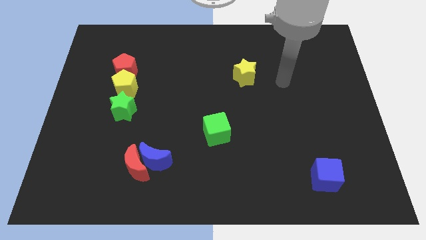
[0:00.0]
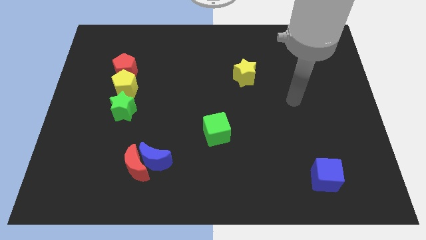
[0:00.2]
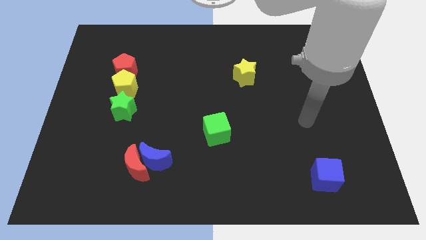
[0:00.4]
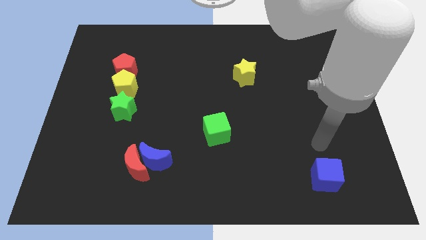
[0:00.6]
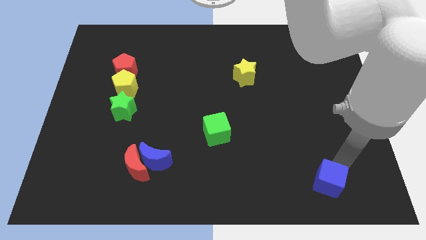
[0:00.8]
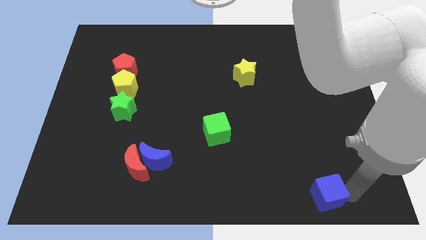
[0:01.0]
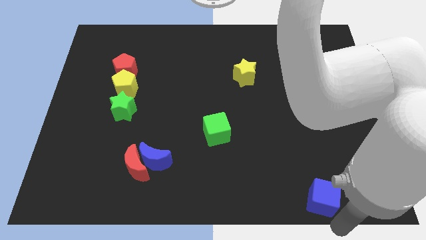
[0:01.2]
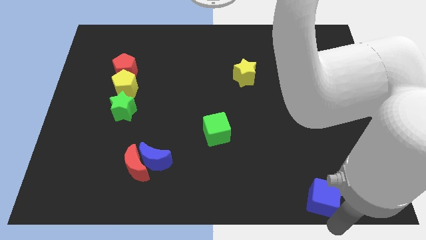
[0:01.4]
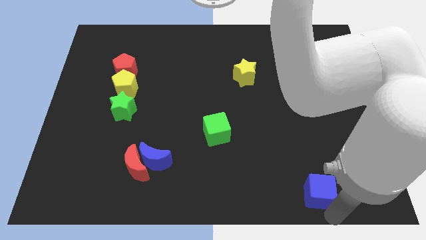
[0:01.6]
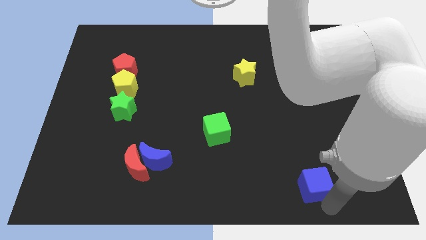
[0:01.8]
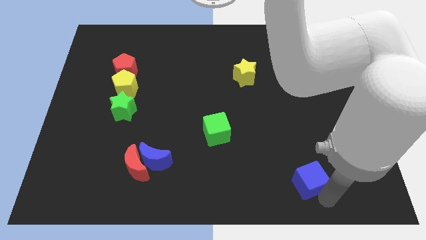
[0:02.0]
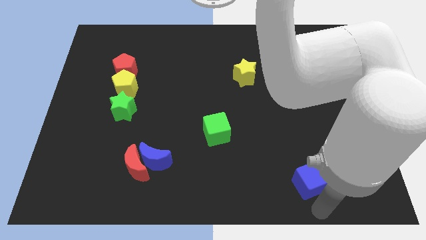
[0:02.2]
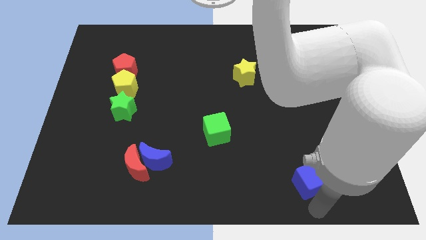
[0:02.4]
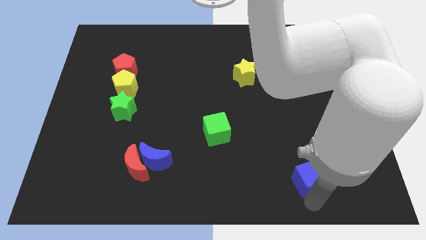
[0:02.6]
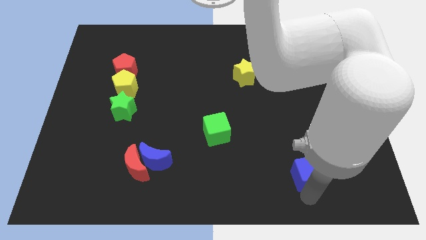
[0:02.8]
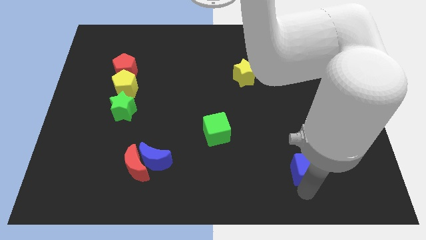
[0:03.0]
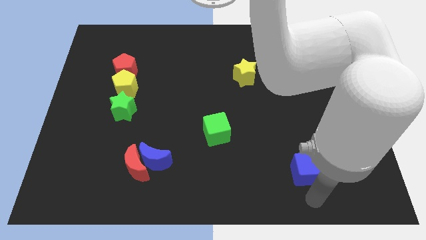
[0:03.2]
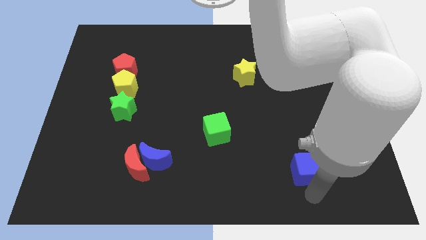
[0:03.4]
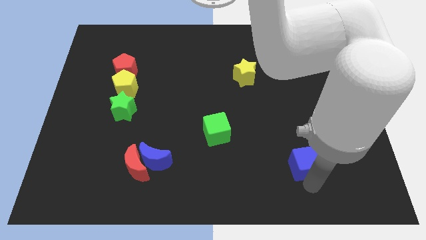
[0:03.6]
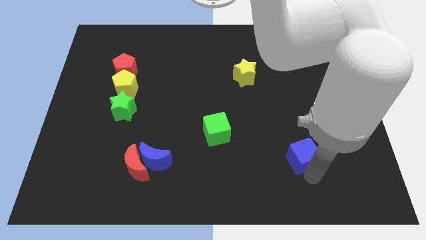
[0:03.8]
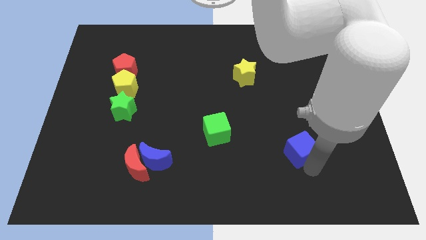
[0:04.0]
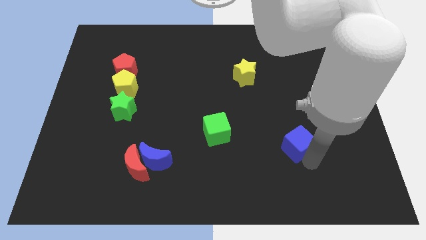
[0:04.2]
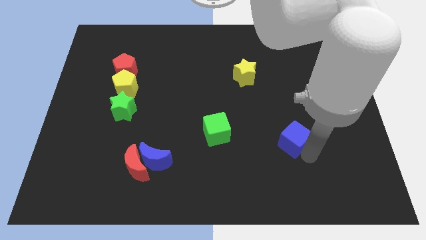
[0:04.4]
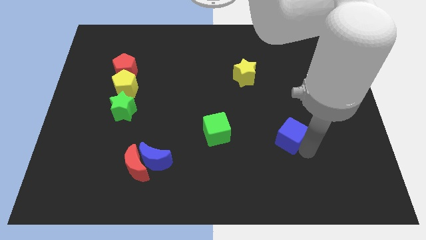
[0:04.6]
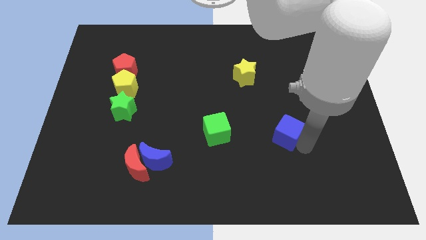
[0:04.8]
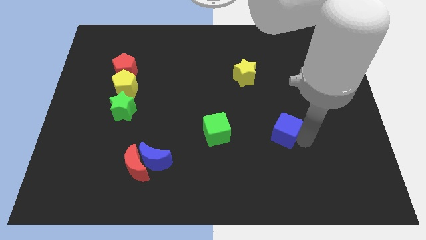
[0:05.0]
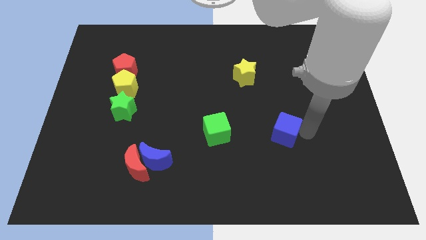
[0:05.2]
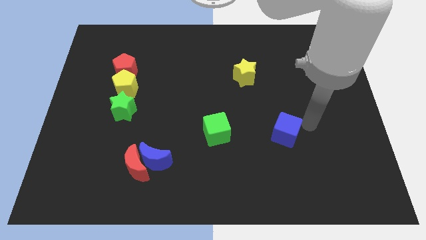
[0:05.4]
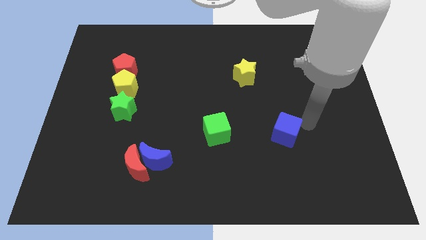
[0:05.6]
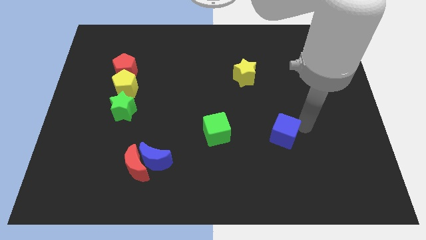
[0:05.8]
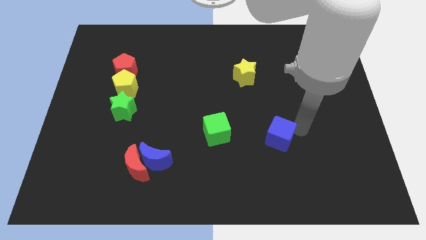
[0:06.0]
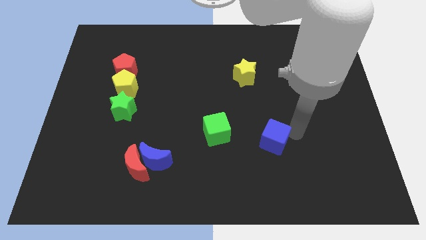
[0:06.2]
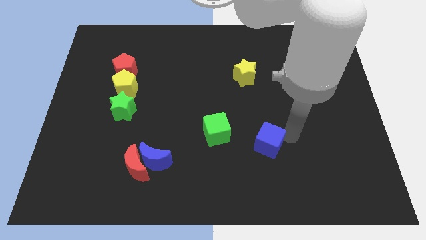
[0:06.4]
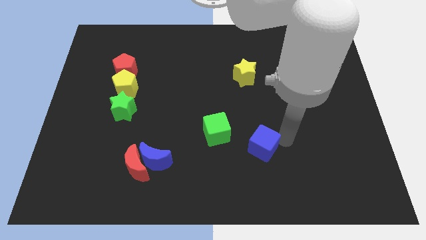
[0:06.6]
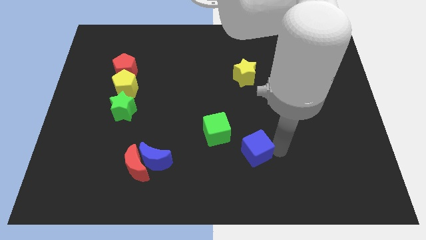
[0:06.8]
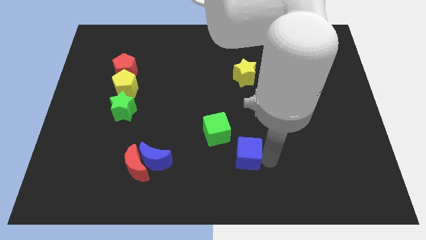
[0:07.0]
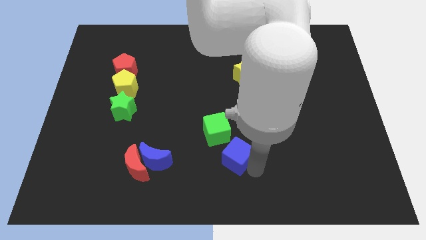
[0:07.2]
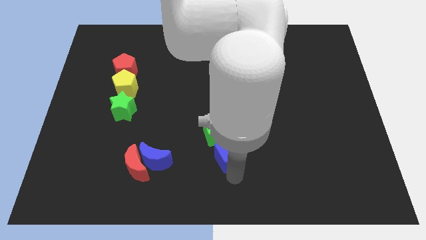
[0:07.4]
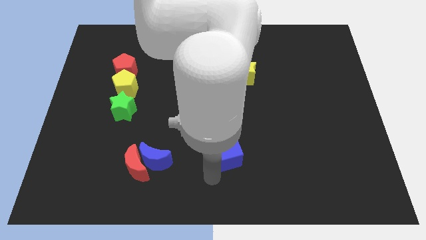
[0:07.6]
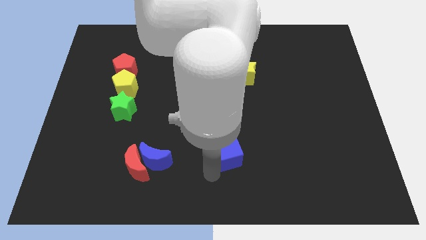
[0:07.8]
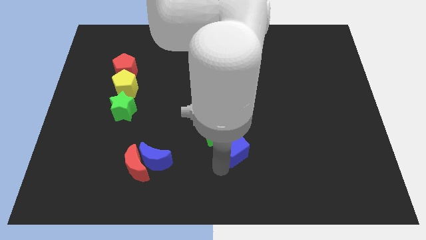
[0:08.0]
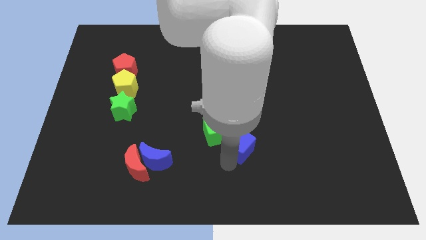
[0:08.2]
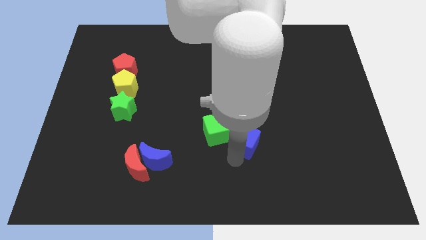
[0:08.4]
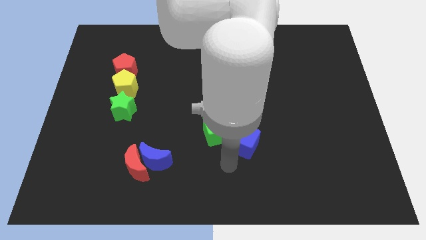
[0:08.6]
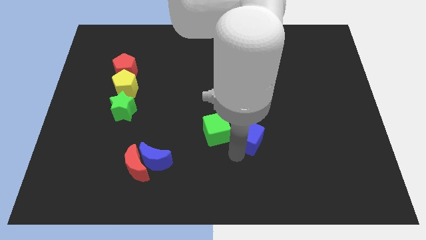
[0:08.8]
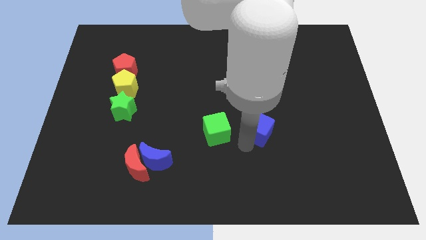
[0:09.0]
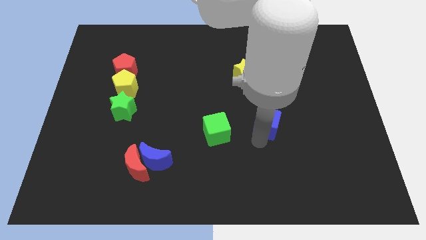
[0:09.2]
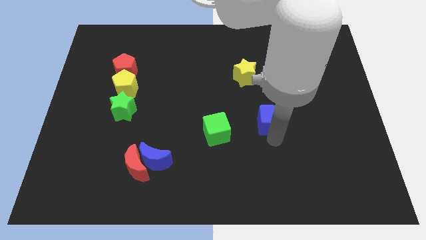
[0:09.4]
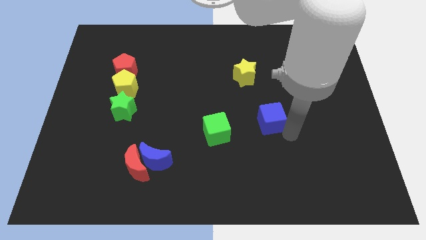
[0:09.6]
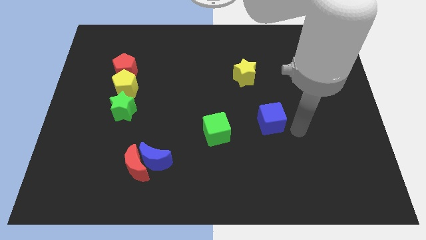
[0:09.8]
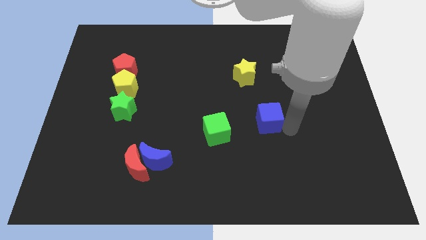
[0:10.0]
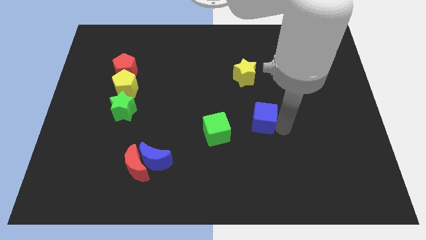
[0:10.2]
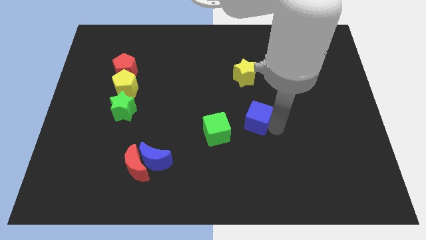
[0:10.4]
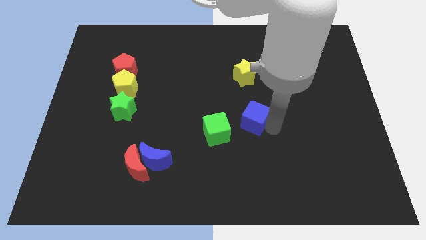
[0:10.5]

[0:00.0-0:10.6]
slide the blue cube up and to the left

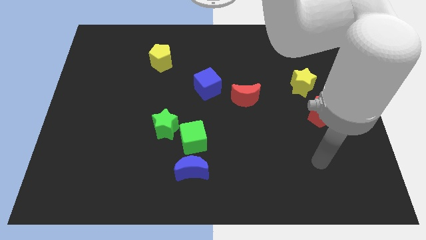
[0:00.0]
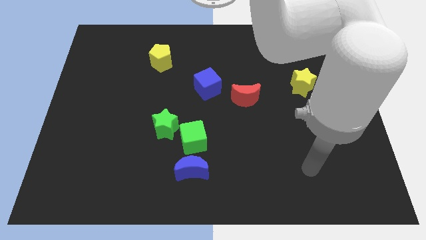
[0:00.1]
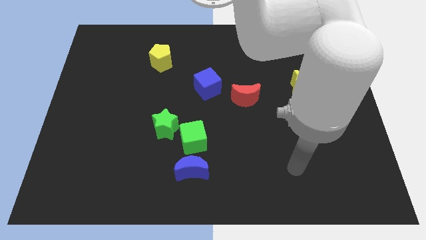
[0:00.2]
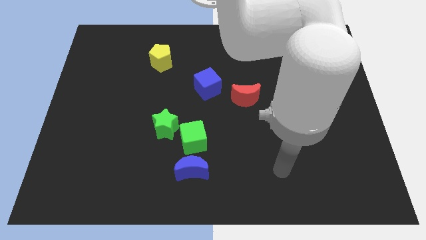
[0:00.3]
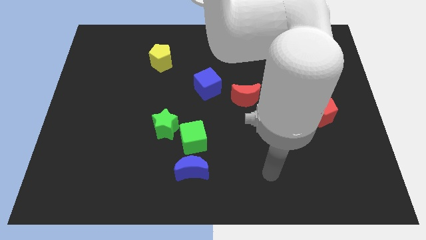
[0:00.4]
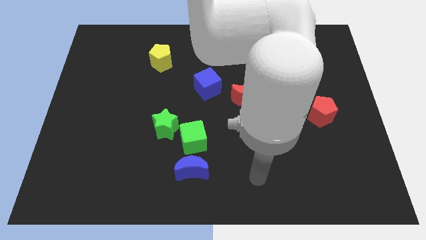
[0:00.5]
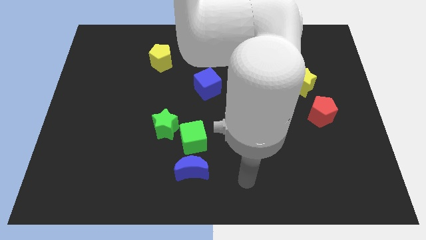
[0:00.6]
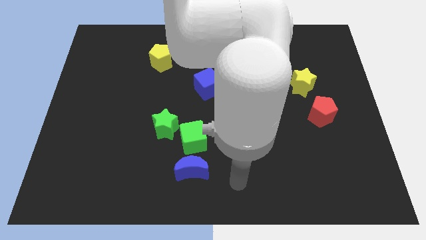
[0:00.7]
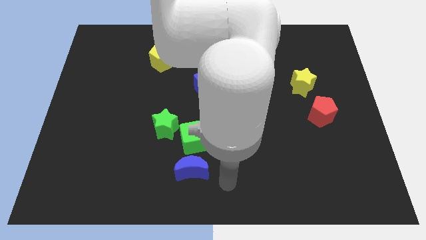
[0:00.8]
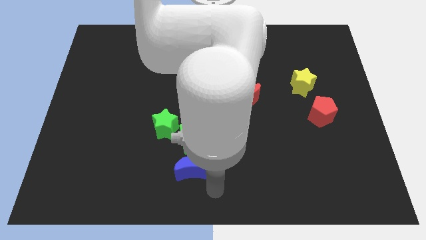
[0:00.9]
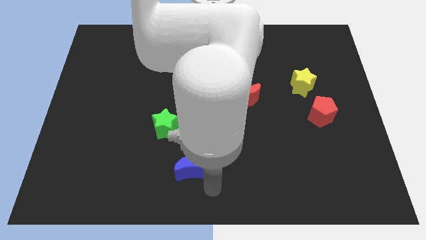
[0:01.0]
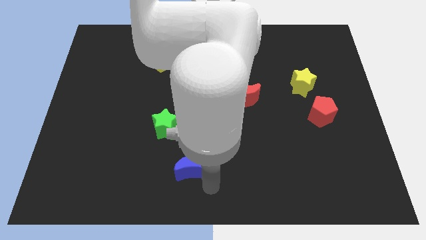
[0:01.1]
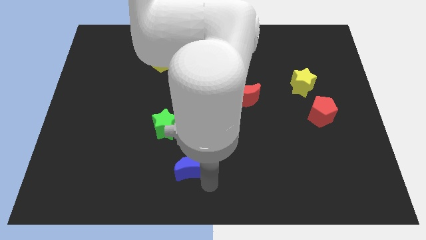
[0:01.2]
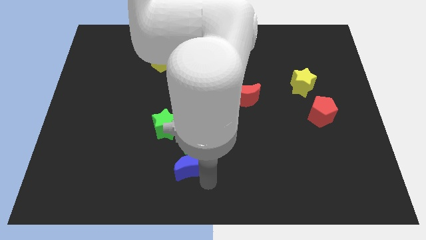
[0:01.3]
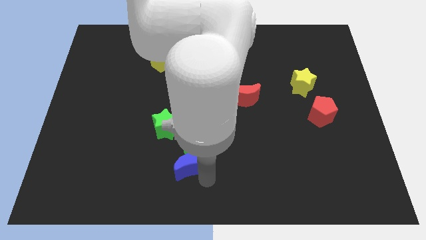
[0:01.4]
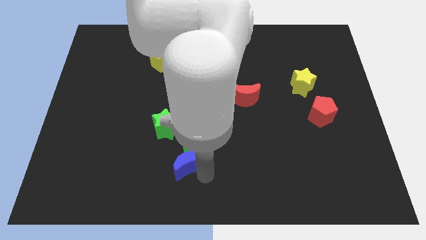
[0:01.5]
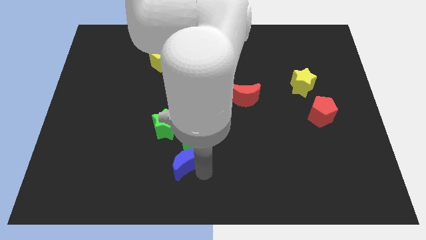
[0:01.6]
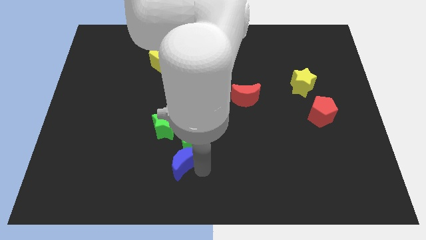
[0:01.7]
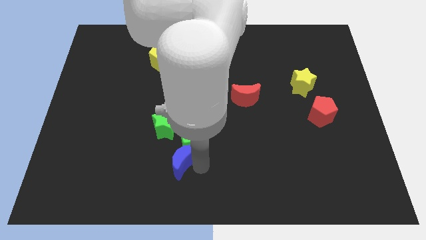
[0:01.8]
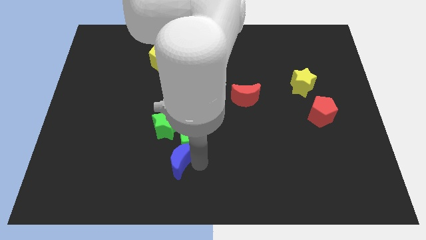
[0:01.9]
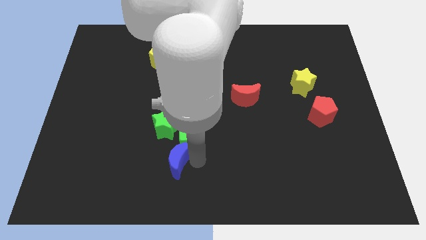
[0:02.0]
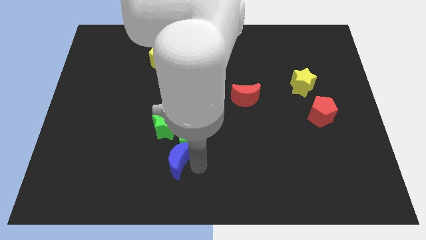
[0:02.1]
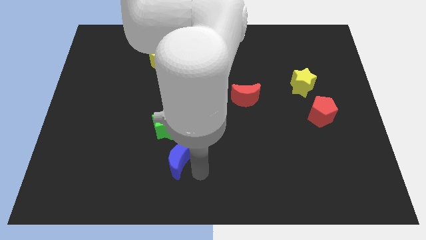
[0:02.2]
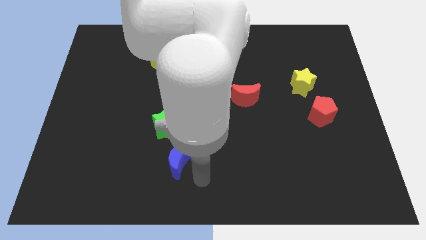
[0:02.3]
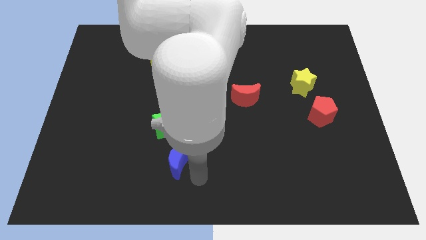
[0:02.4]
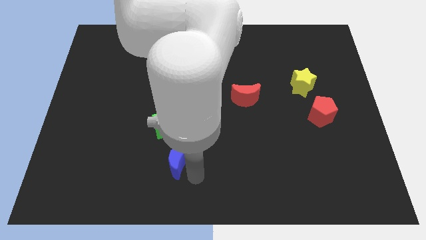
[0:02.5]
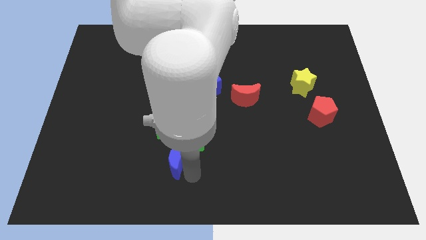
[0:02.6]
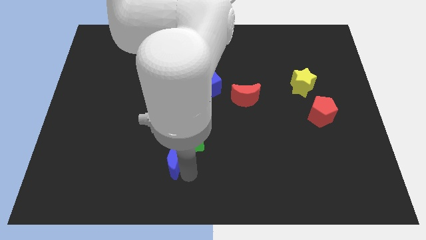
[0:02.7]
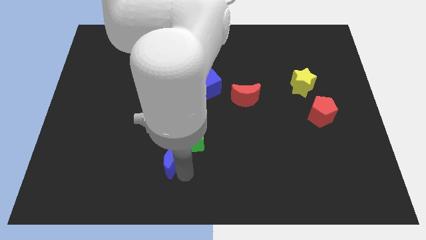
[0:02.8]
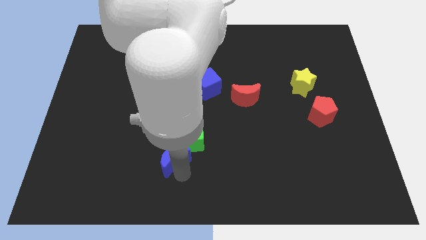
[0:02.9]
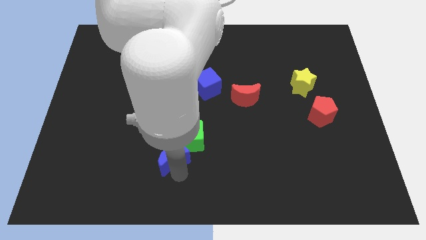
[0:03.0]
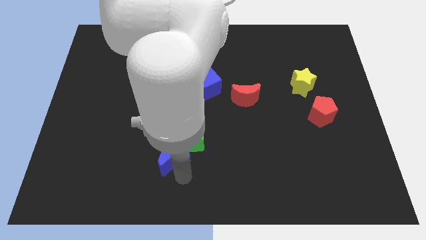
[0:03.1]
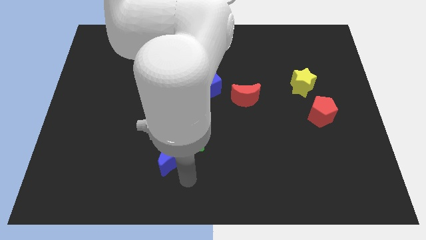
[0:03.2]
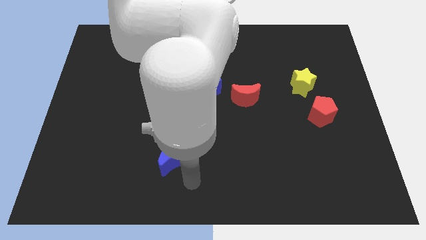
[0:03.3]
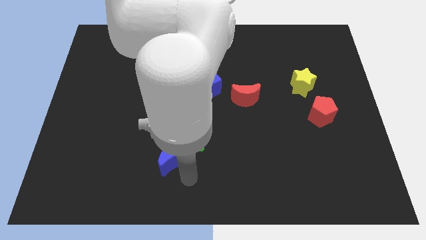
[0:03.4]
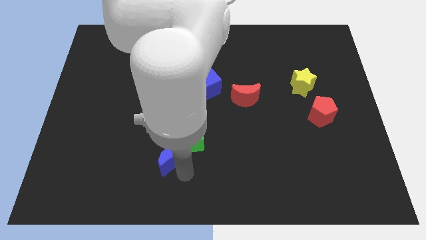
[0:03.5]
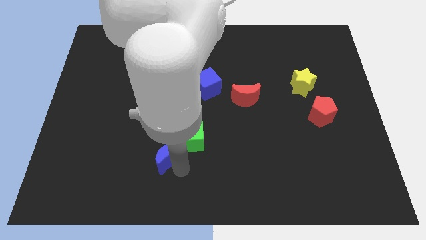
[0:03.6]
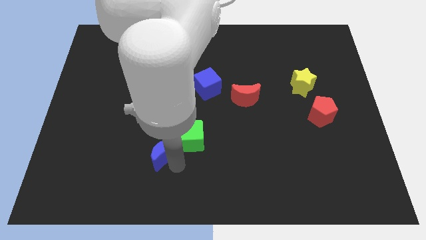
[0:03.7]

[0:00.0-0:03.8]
slightly slide the blue moon diagonally upwards and left
